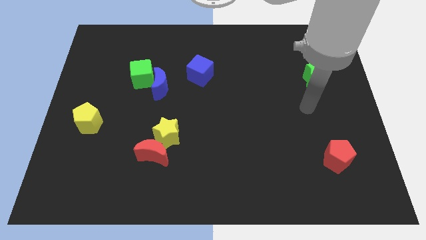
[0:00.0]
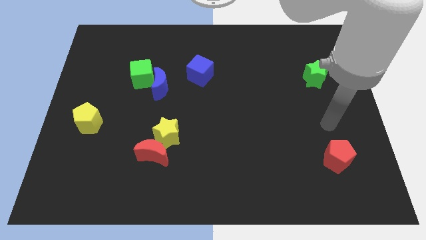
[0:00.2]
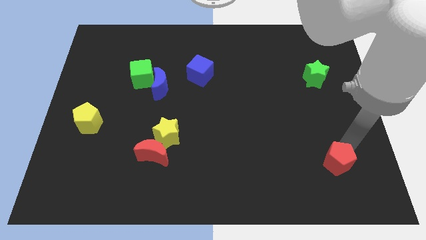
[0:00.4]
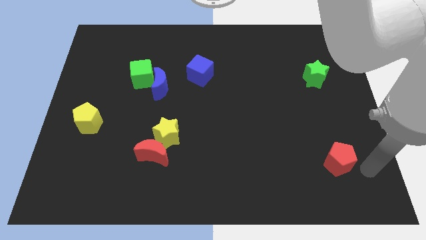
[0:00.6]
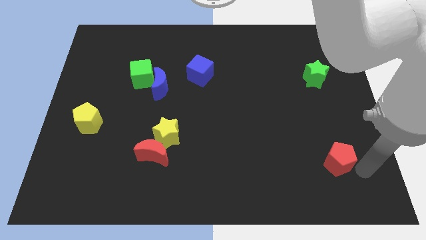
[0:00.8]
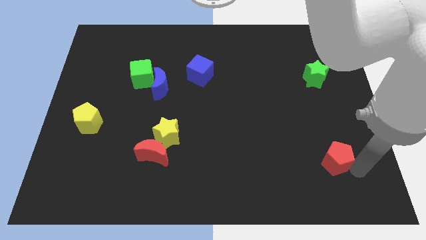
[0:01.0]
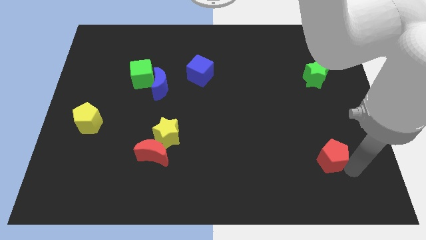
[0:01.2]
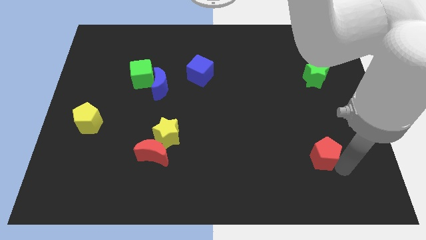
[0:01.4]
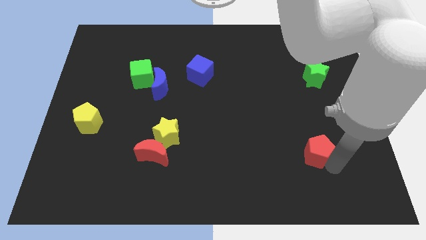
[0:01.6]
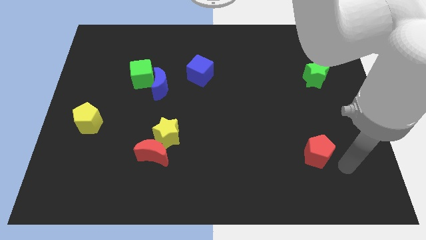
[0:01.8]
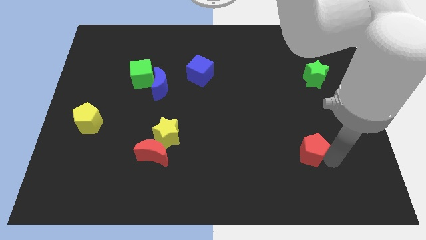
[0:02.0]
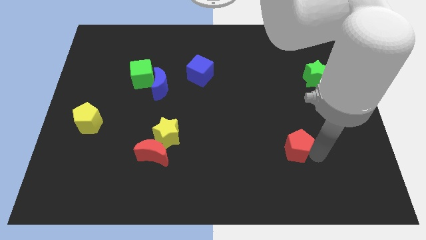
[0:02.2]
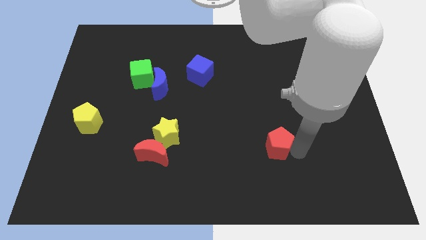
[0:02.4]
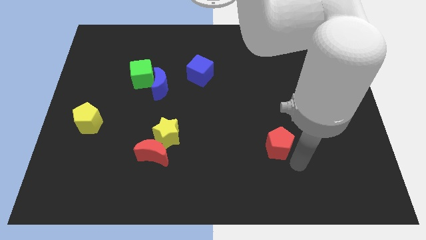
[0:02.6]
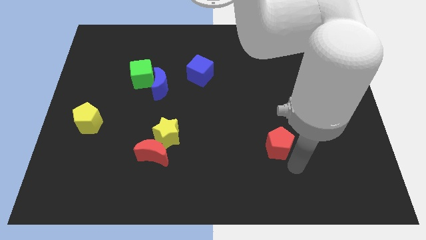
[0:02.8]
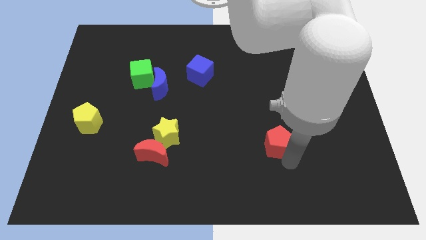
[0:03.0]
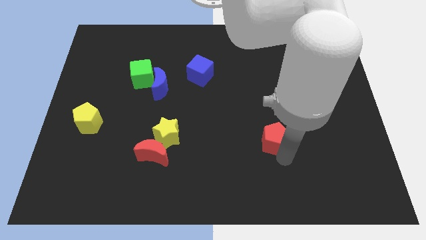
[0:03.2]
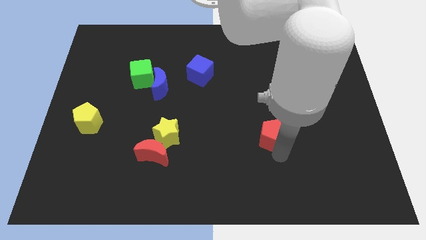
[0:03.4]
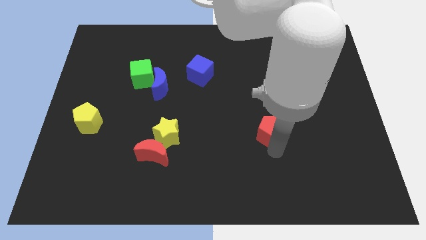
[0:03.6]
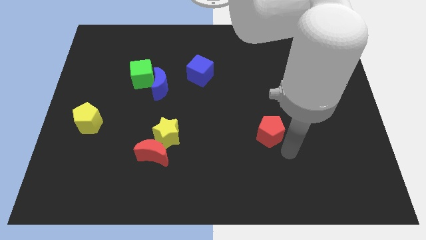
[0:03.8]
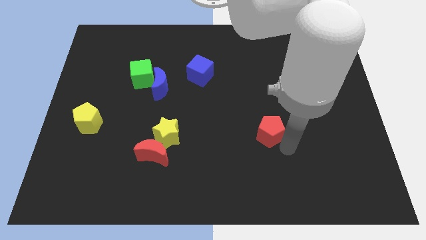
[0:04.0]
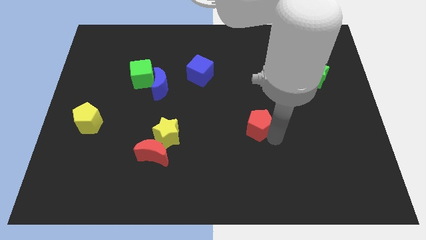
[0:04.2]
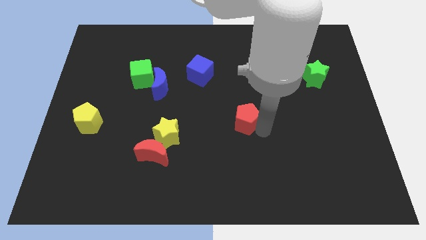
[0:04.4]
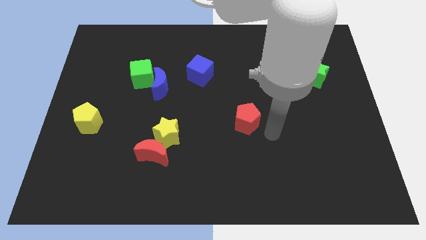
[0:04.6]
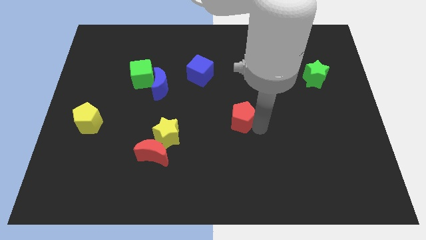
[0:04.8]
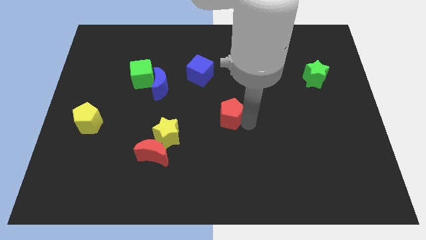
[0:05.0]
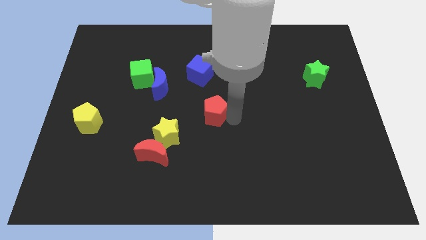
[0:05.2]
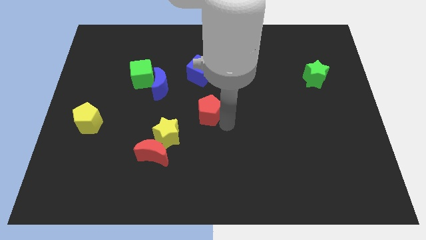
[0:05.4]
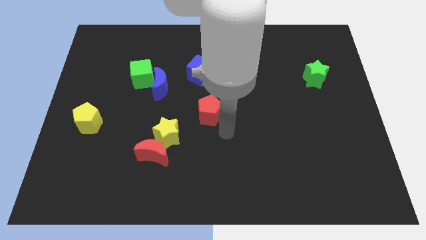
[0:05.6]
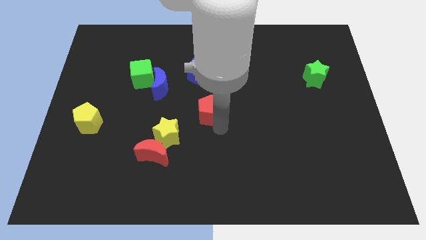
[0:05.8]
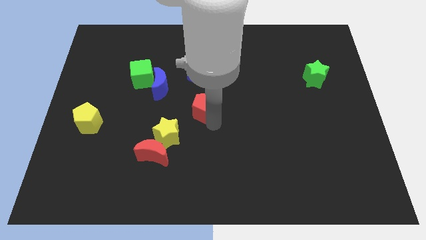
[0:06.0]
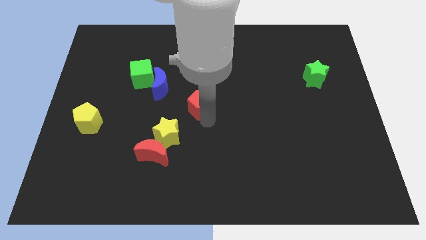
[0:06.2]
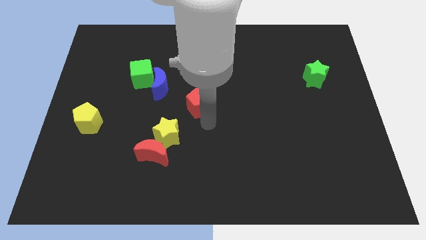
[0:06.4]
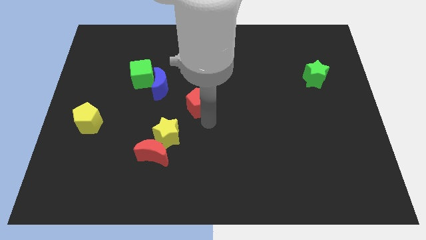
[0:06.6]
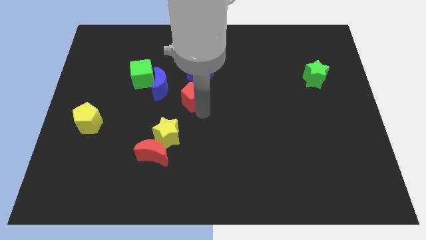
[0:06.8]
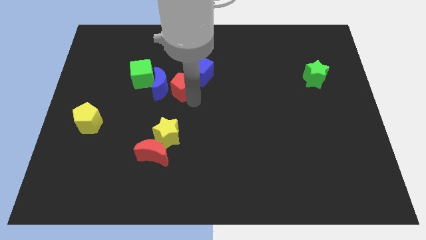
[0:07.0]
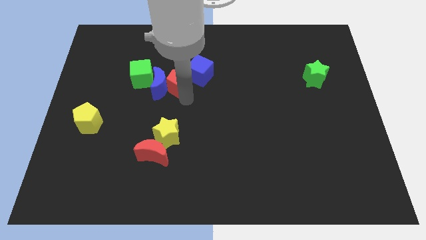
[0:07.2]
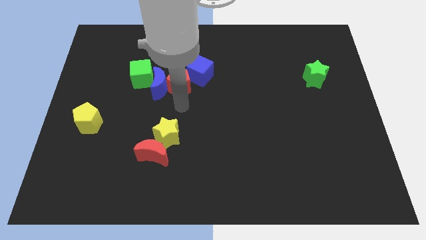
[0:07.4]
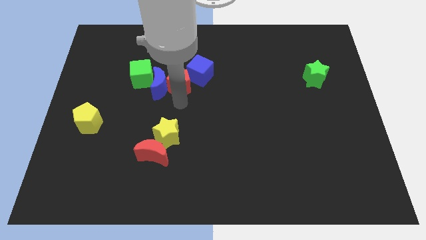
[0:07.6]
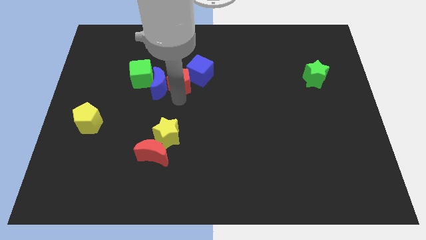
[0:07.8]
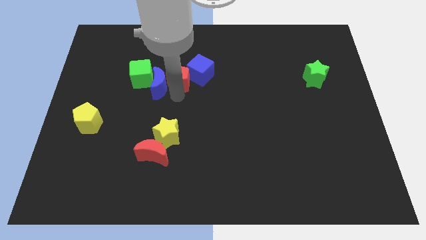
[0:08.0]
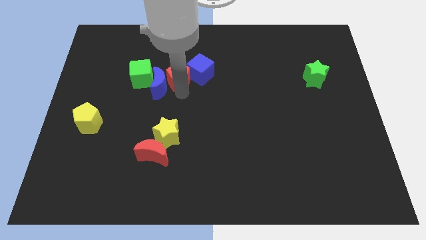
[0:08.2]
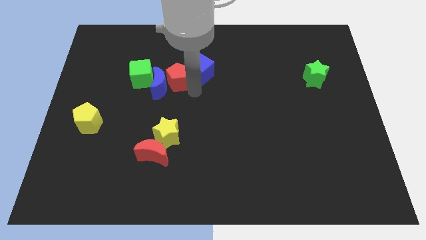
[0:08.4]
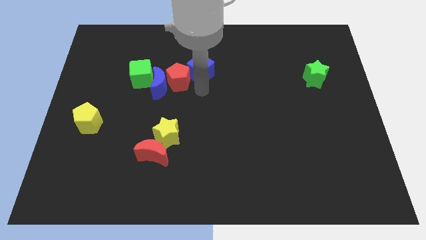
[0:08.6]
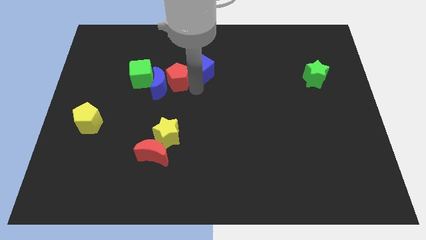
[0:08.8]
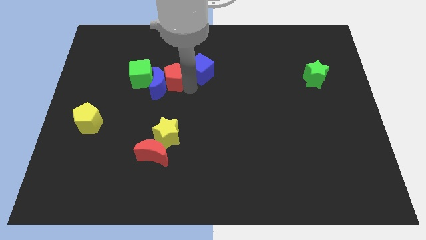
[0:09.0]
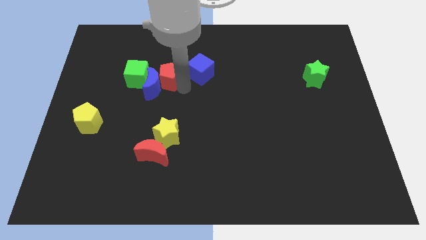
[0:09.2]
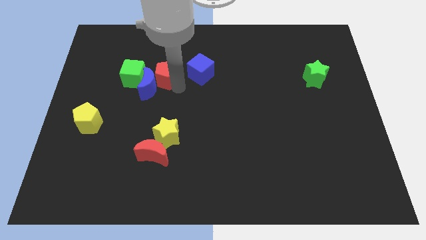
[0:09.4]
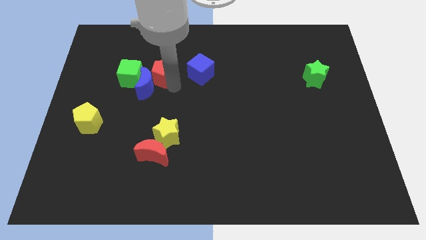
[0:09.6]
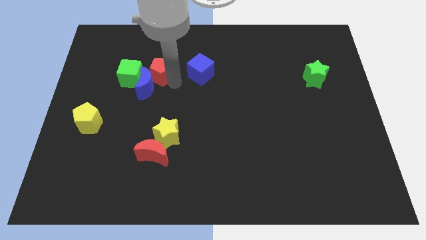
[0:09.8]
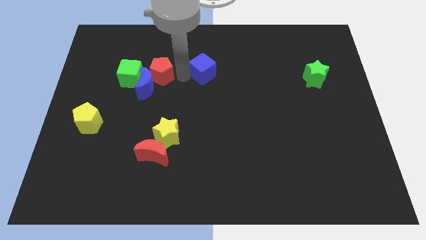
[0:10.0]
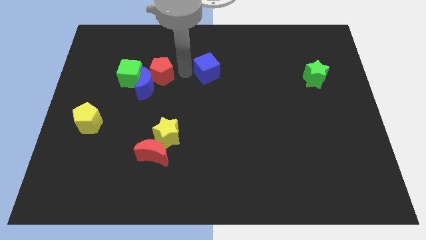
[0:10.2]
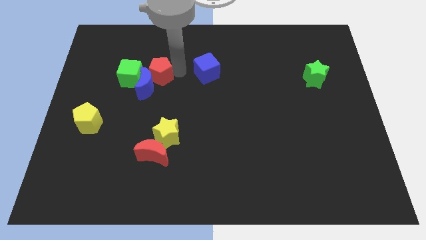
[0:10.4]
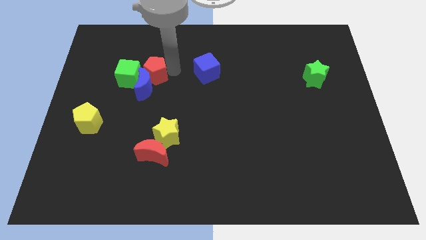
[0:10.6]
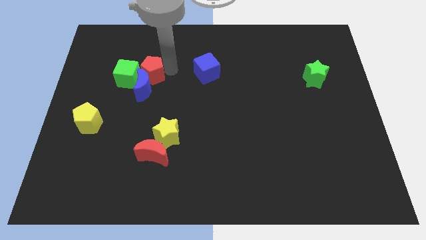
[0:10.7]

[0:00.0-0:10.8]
move the red pentagon to the green cube

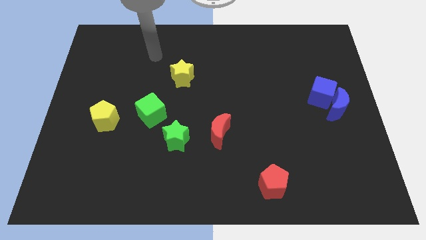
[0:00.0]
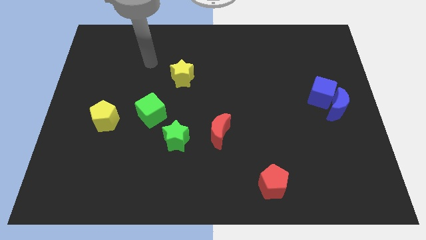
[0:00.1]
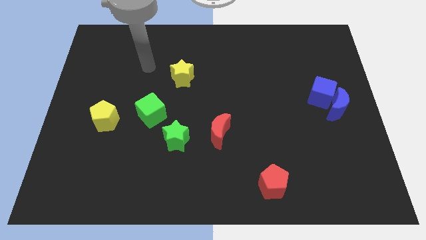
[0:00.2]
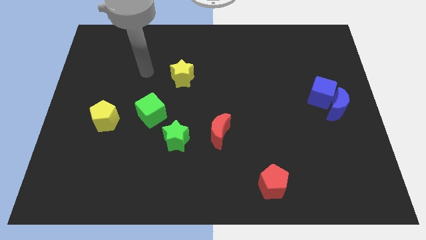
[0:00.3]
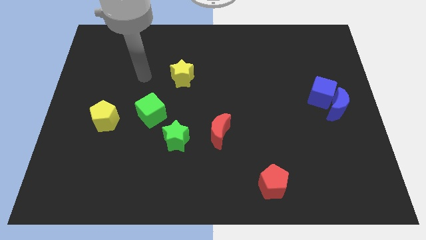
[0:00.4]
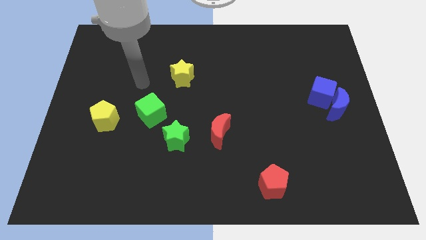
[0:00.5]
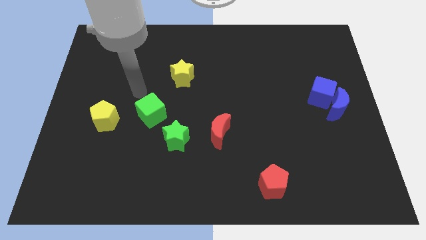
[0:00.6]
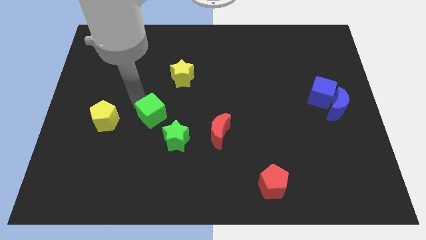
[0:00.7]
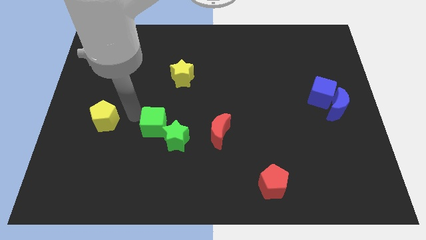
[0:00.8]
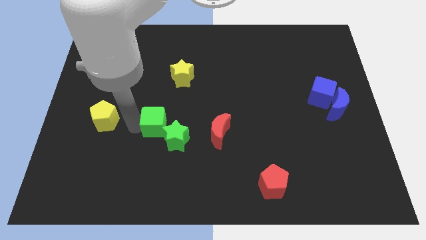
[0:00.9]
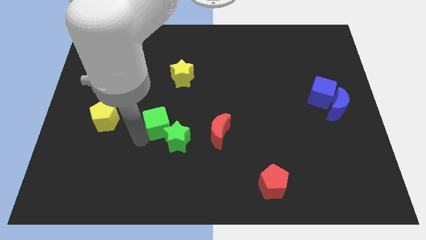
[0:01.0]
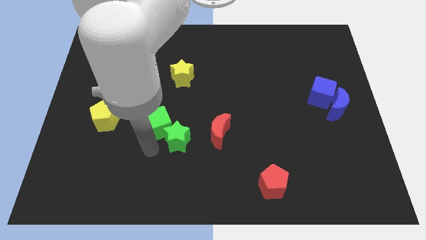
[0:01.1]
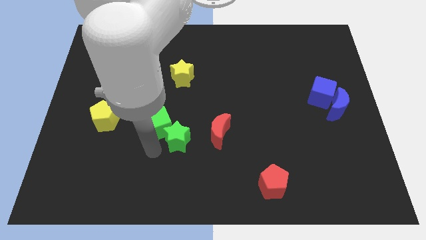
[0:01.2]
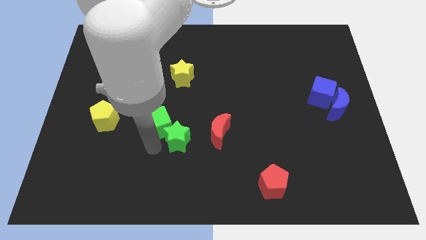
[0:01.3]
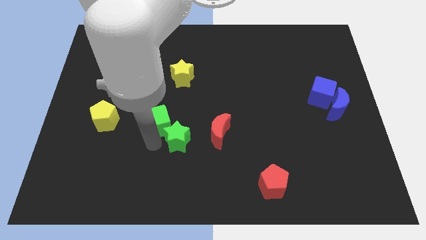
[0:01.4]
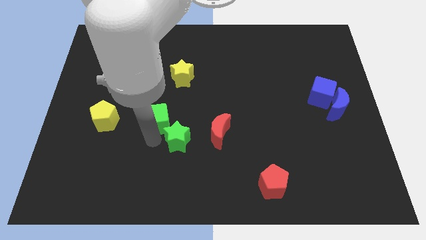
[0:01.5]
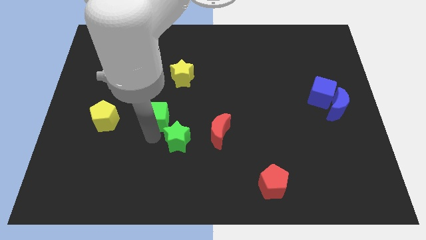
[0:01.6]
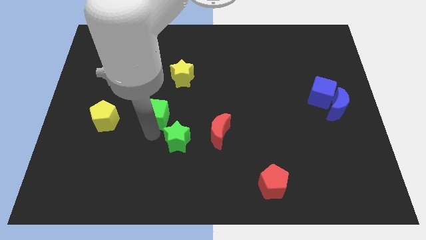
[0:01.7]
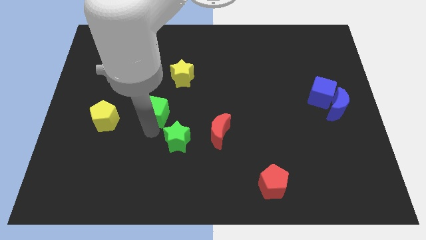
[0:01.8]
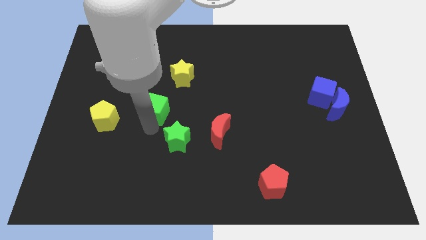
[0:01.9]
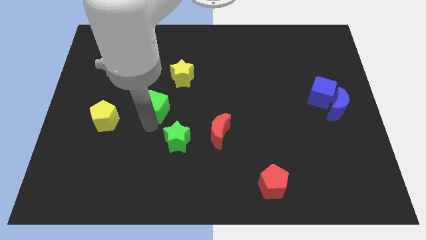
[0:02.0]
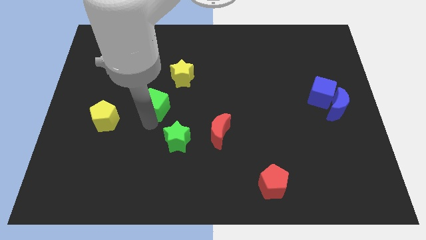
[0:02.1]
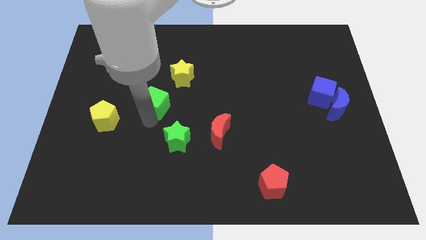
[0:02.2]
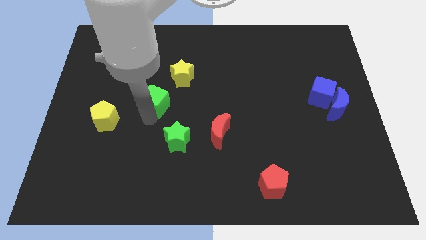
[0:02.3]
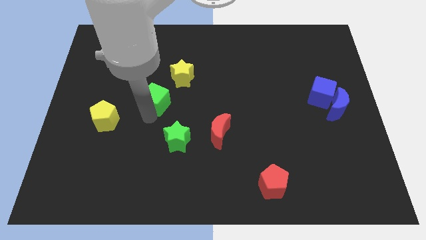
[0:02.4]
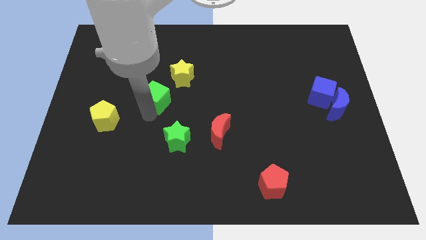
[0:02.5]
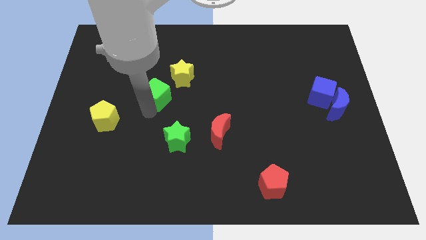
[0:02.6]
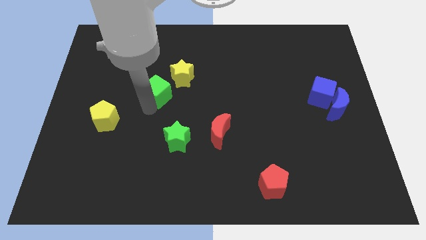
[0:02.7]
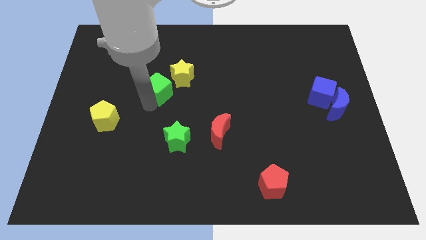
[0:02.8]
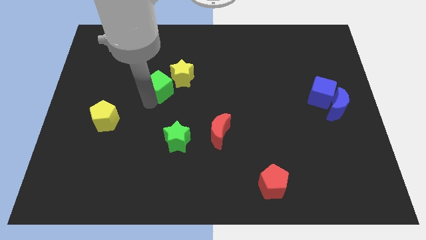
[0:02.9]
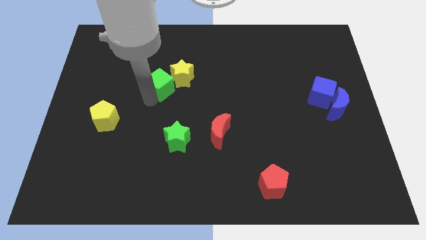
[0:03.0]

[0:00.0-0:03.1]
put the green cube to the yellow star
